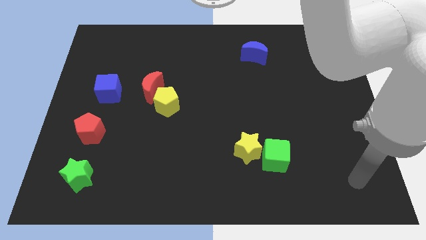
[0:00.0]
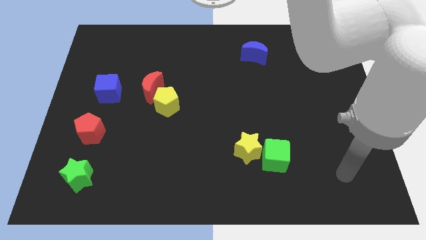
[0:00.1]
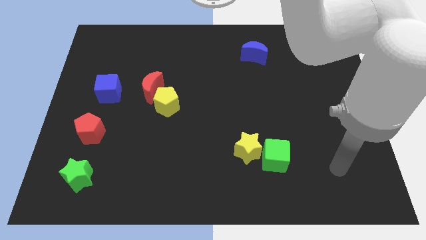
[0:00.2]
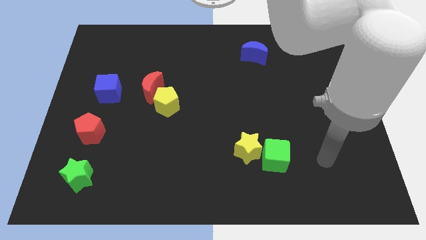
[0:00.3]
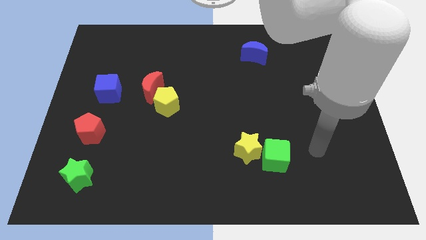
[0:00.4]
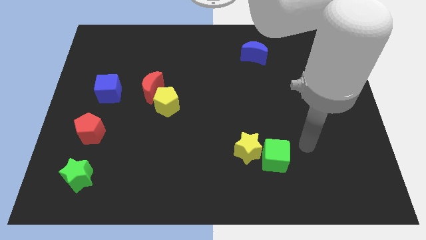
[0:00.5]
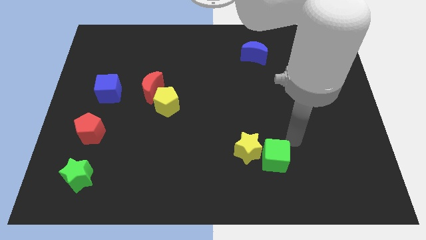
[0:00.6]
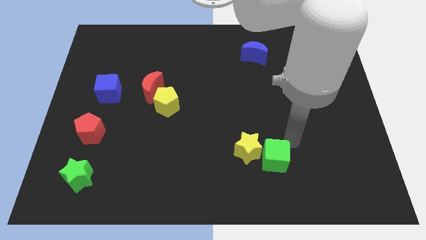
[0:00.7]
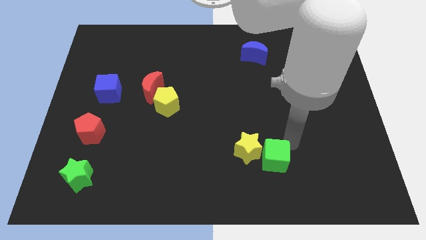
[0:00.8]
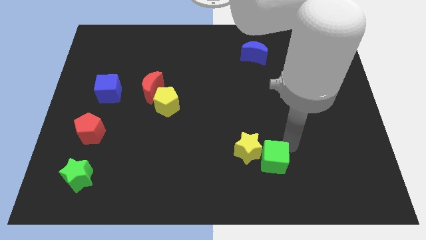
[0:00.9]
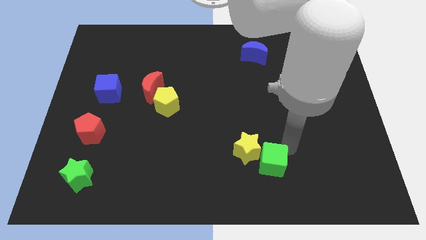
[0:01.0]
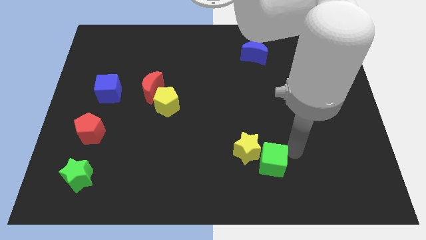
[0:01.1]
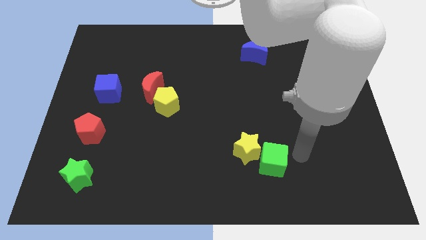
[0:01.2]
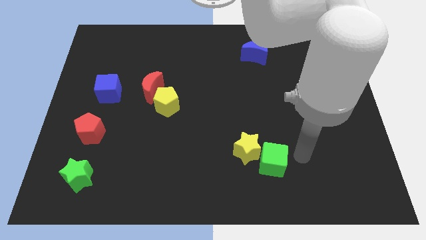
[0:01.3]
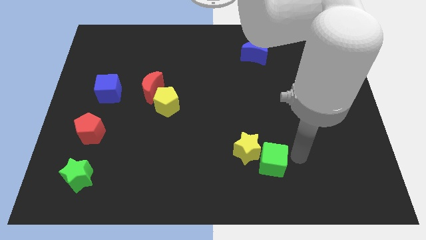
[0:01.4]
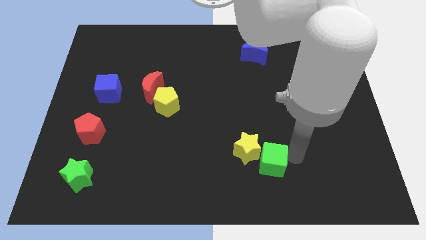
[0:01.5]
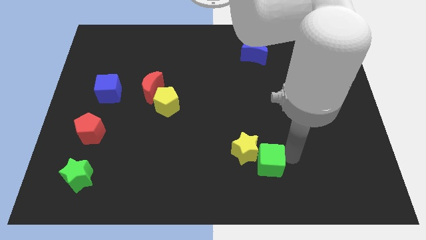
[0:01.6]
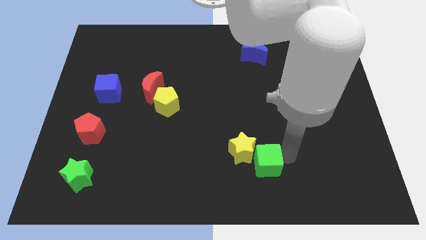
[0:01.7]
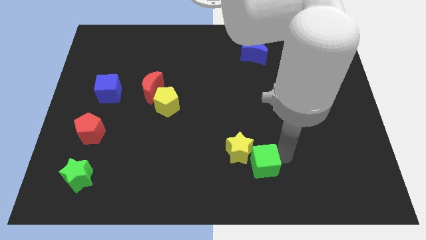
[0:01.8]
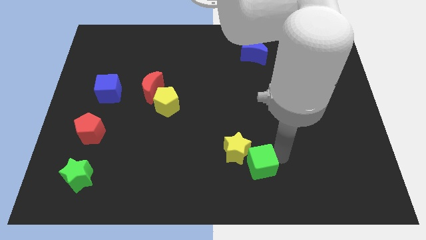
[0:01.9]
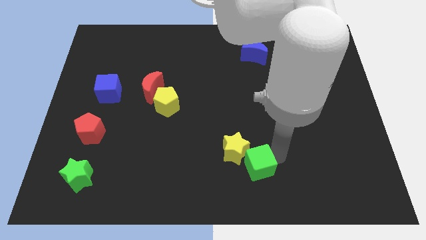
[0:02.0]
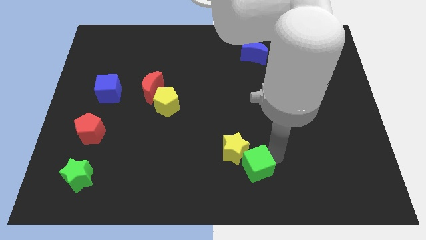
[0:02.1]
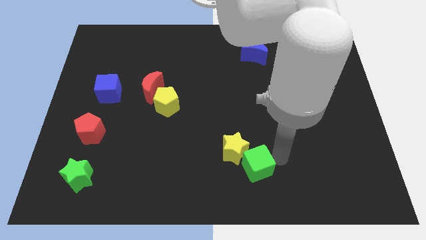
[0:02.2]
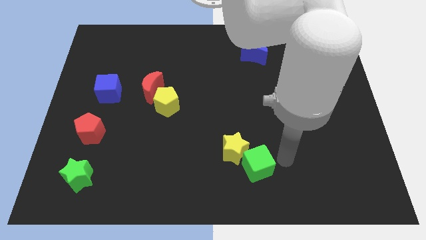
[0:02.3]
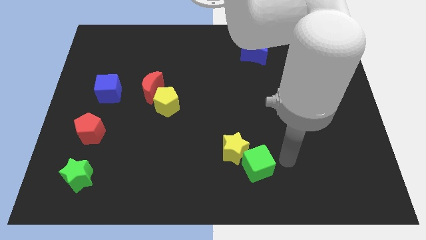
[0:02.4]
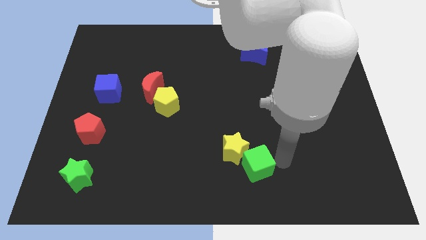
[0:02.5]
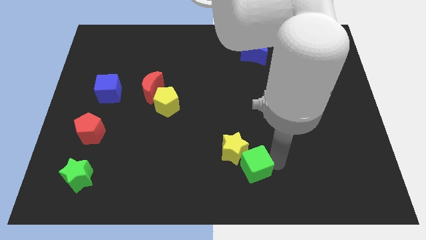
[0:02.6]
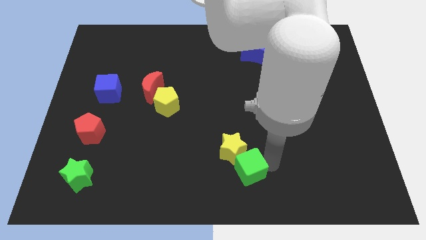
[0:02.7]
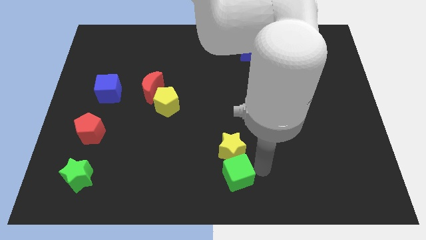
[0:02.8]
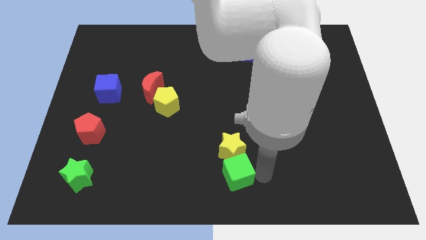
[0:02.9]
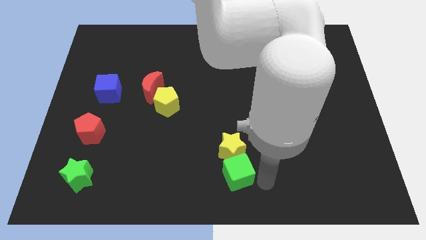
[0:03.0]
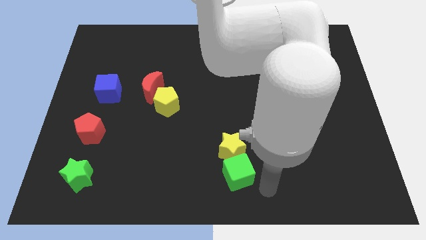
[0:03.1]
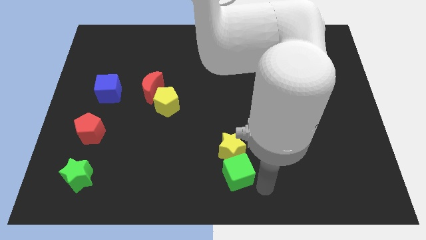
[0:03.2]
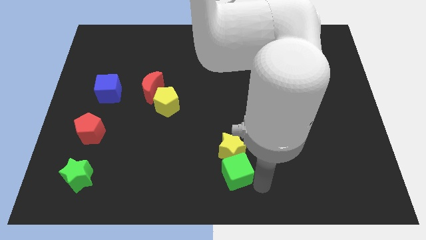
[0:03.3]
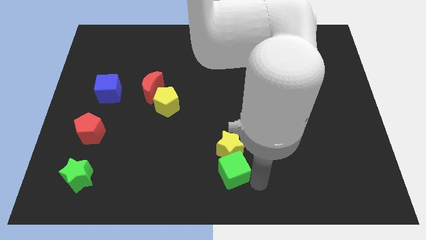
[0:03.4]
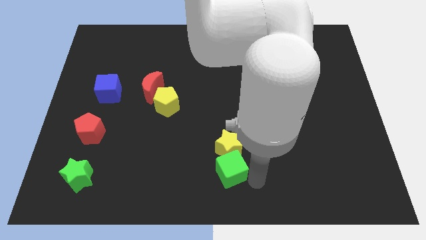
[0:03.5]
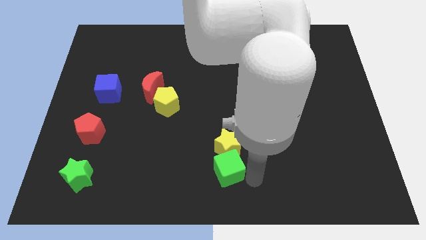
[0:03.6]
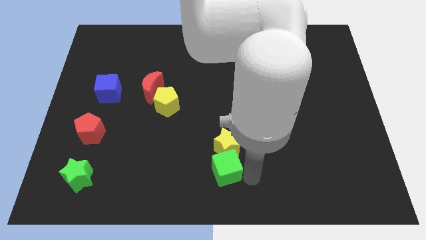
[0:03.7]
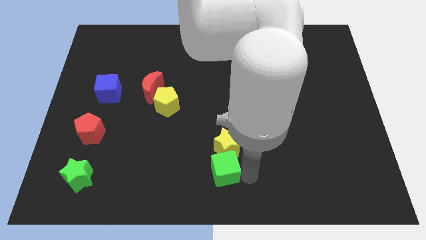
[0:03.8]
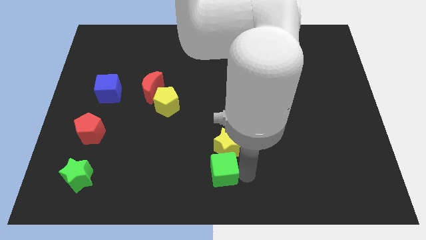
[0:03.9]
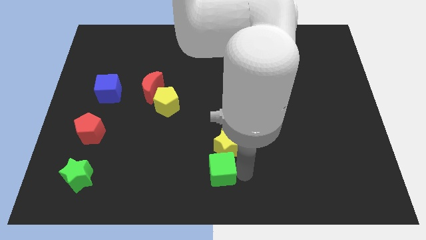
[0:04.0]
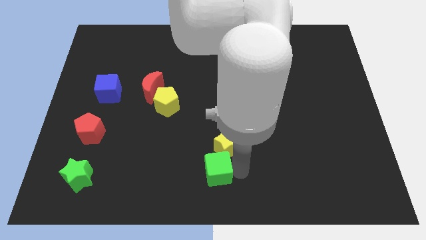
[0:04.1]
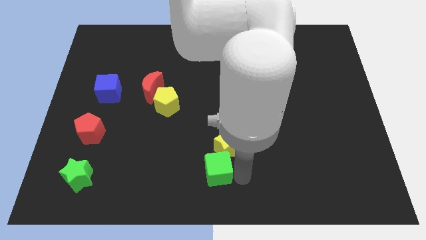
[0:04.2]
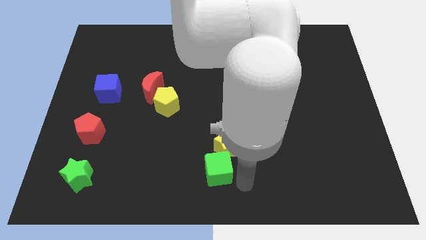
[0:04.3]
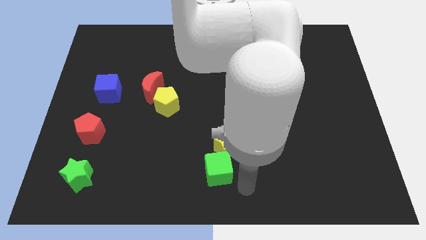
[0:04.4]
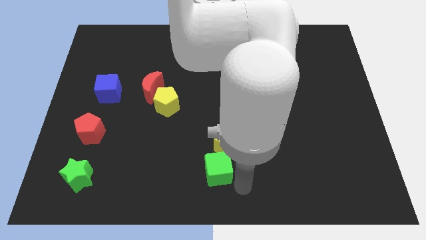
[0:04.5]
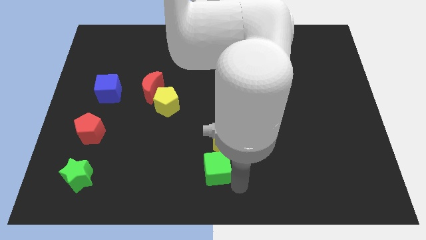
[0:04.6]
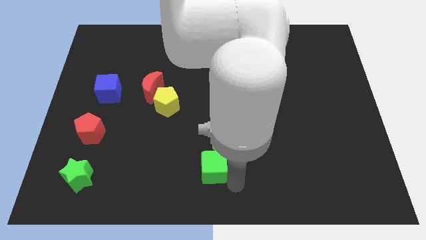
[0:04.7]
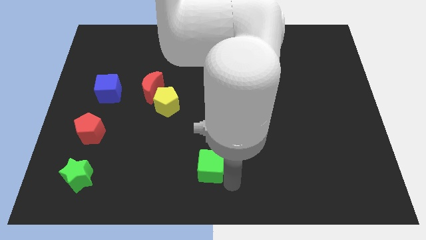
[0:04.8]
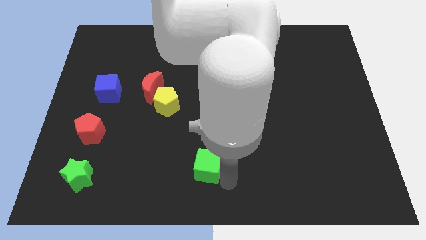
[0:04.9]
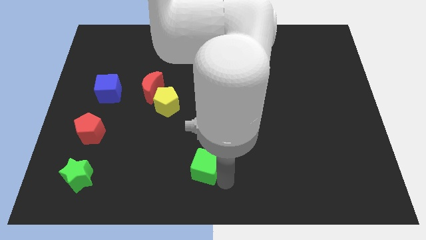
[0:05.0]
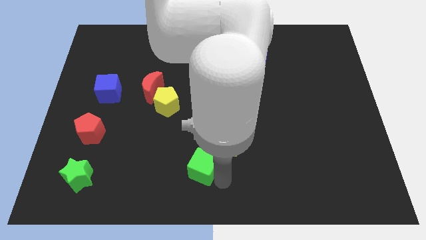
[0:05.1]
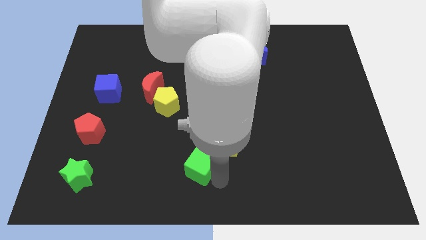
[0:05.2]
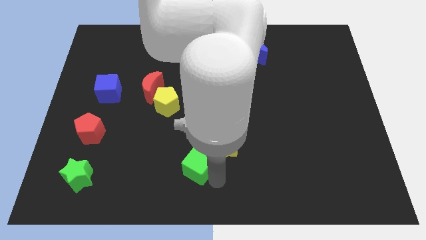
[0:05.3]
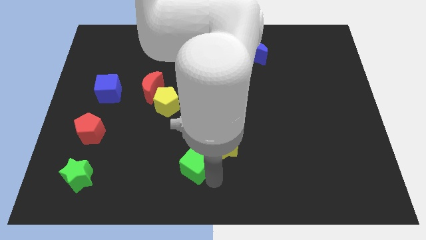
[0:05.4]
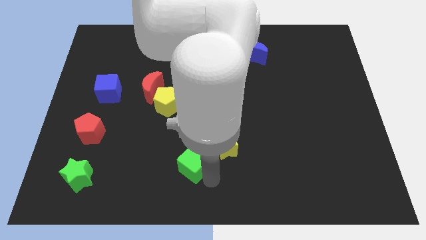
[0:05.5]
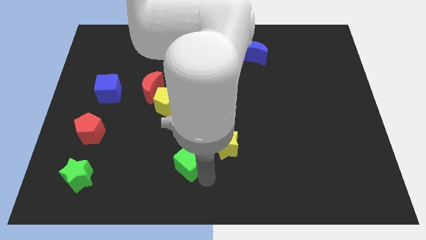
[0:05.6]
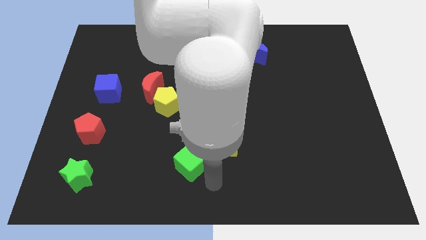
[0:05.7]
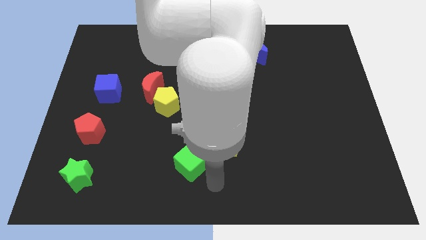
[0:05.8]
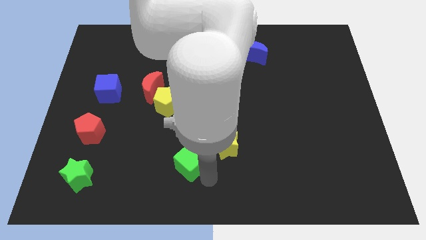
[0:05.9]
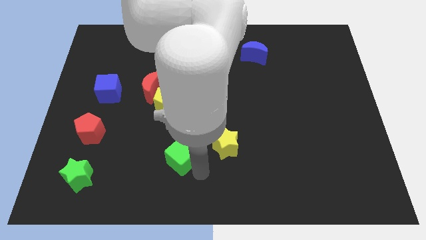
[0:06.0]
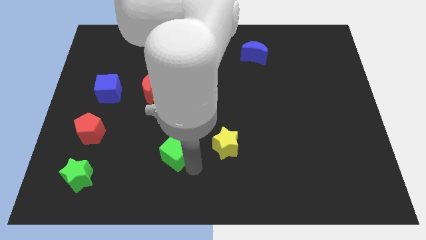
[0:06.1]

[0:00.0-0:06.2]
push the green cube to the bottom of the yellow pentagon

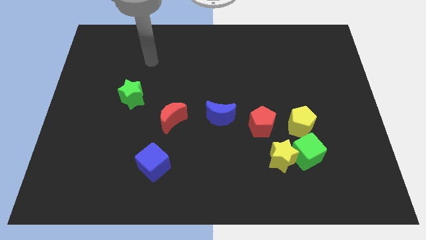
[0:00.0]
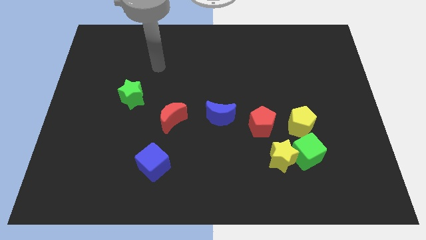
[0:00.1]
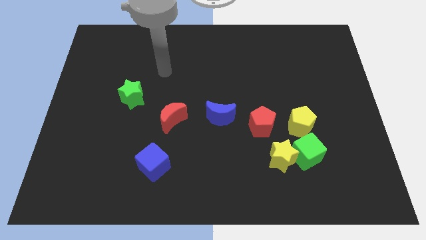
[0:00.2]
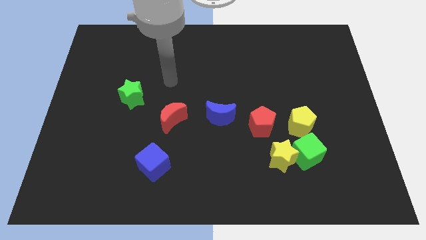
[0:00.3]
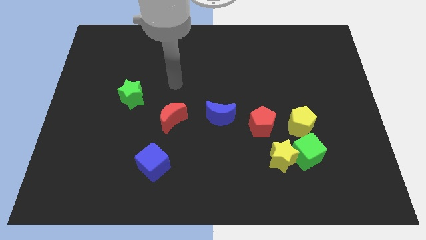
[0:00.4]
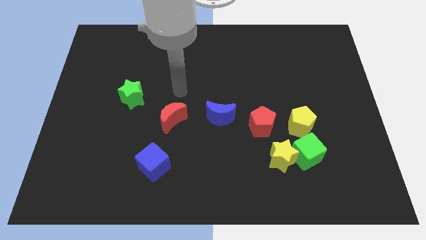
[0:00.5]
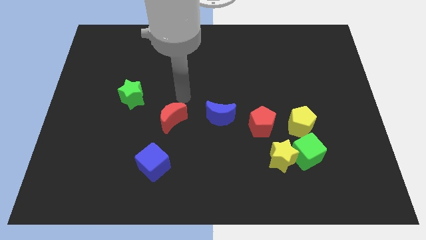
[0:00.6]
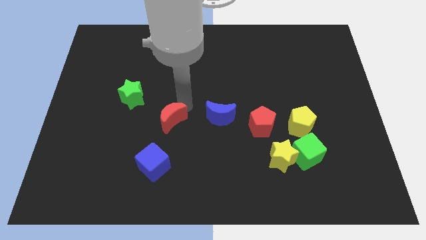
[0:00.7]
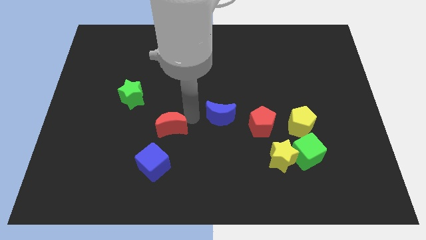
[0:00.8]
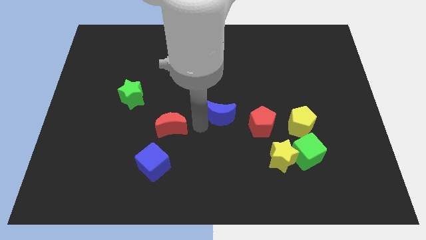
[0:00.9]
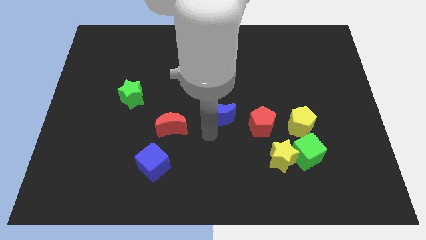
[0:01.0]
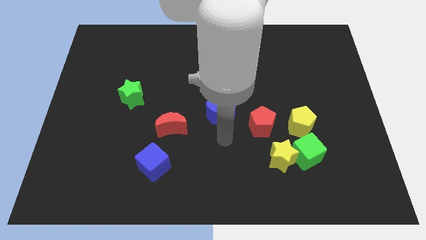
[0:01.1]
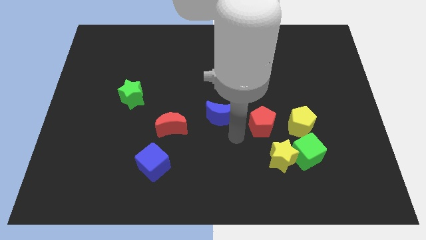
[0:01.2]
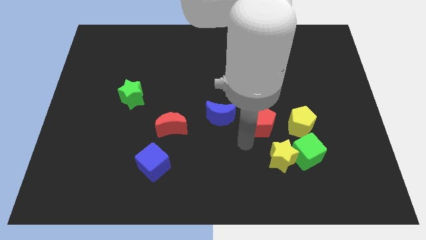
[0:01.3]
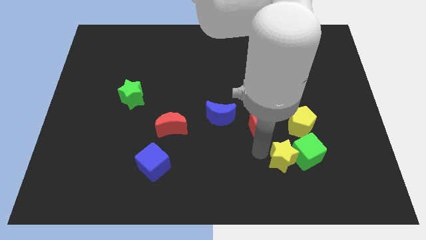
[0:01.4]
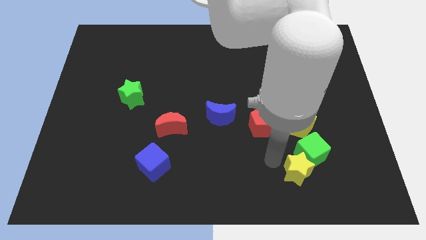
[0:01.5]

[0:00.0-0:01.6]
slide the green cube to the bottom right side of the yellow pentagon
